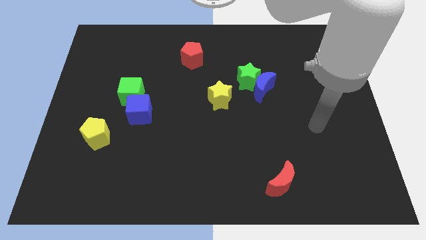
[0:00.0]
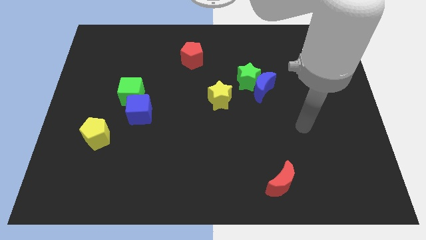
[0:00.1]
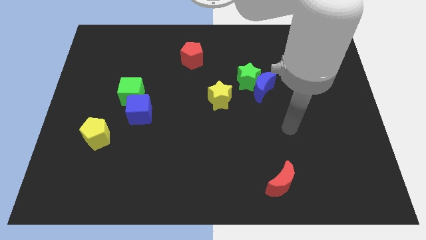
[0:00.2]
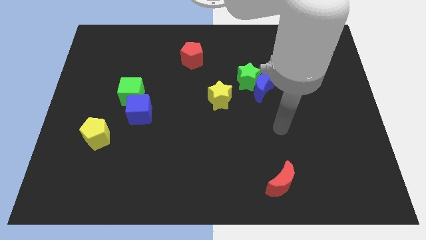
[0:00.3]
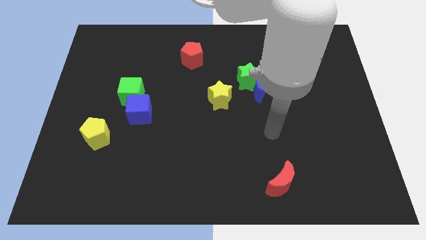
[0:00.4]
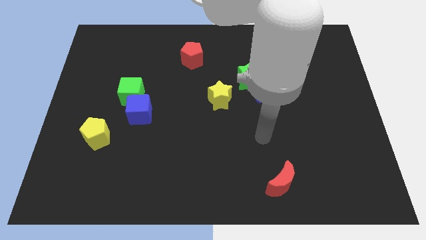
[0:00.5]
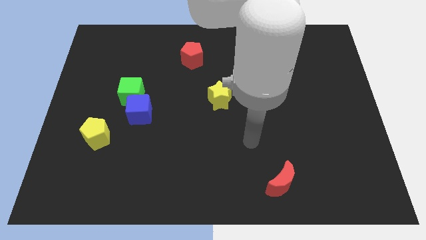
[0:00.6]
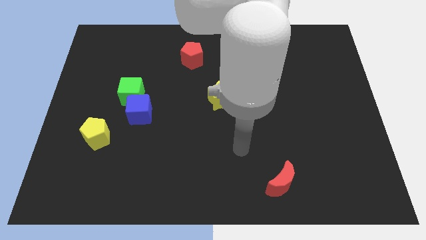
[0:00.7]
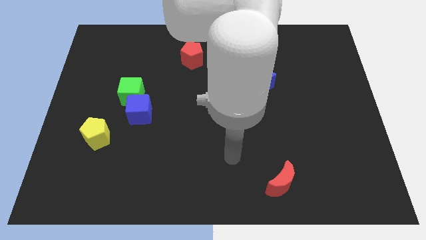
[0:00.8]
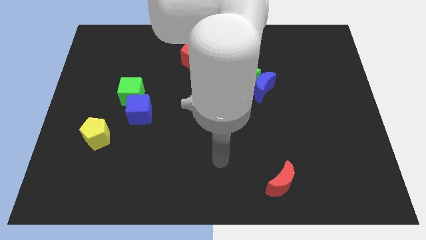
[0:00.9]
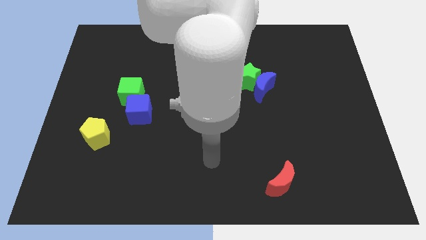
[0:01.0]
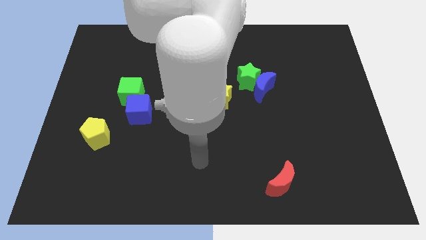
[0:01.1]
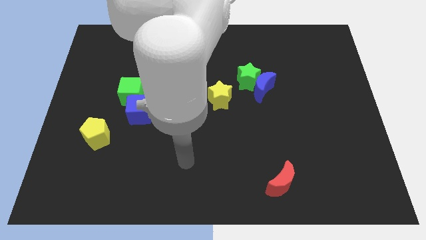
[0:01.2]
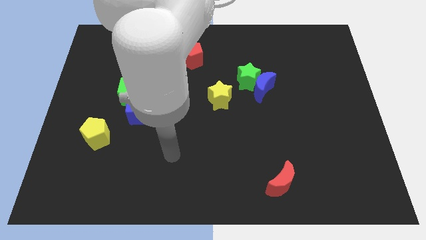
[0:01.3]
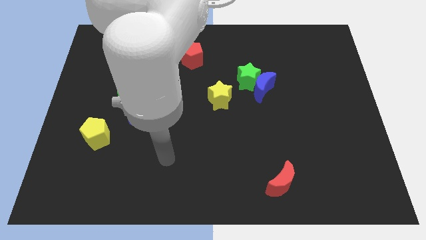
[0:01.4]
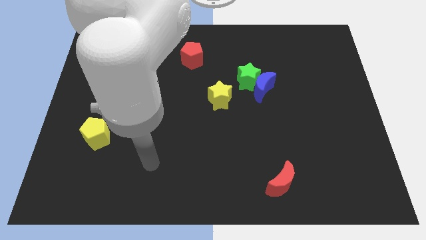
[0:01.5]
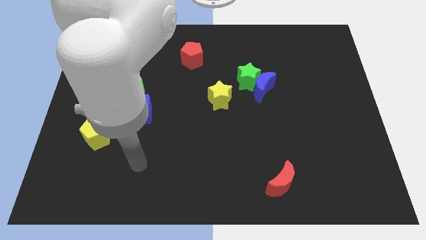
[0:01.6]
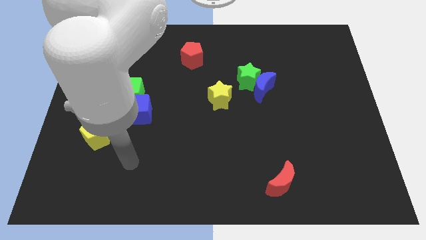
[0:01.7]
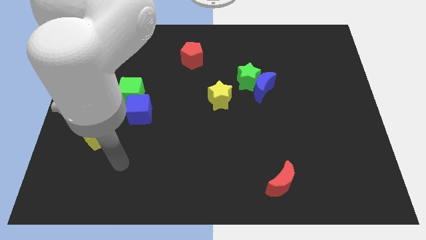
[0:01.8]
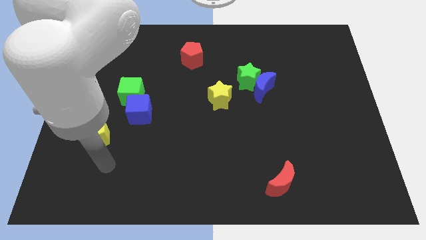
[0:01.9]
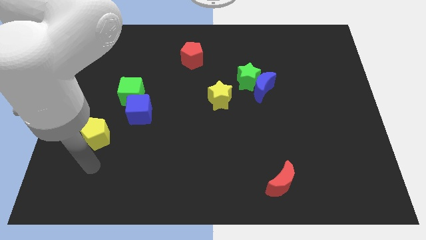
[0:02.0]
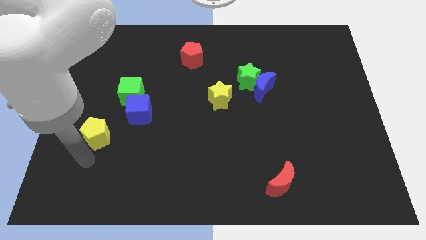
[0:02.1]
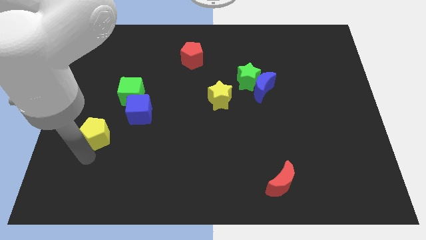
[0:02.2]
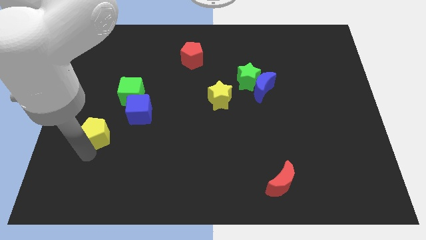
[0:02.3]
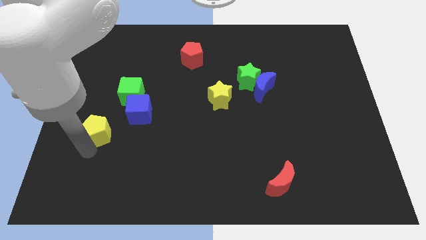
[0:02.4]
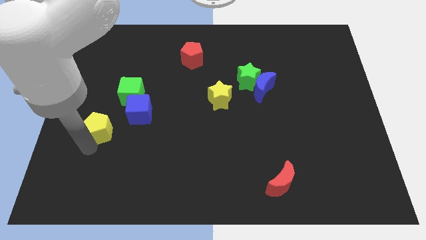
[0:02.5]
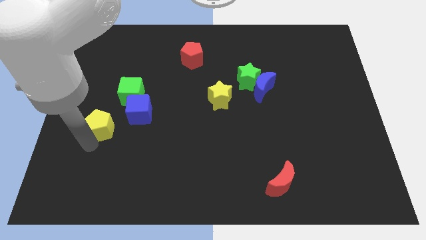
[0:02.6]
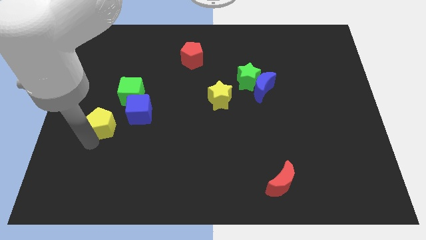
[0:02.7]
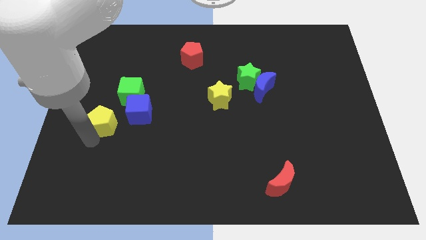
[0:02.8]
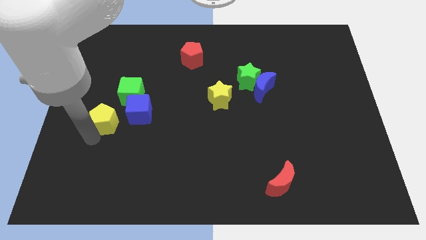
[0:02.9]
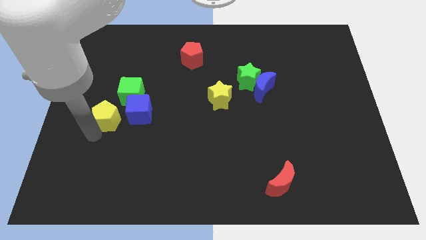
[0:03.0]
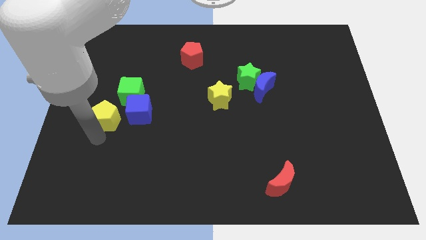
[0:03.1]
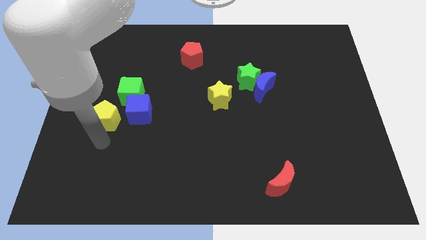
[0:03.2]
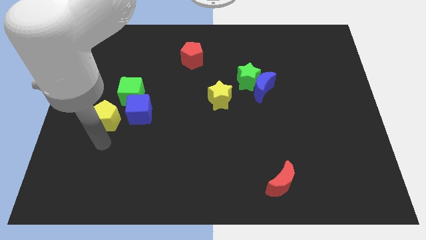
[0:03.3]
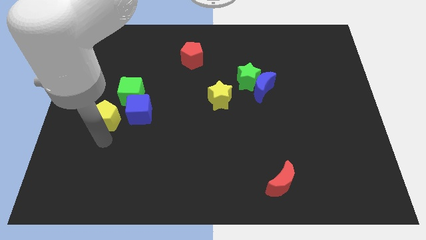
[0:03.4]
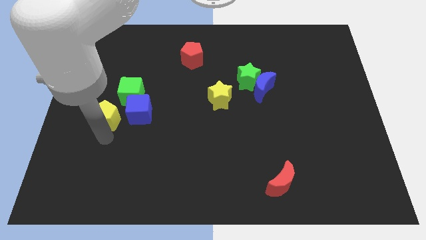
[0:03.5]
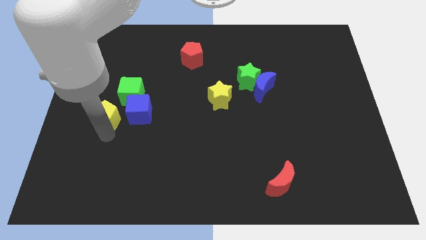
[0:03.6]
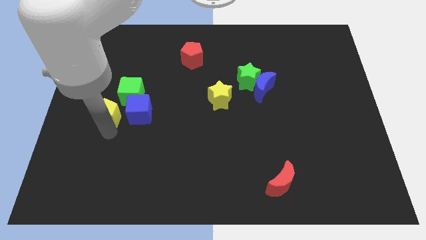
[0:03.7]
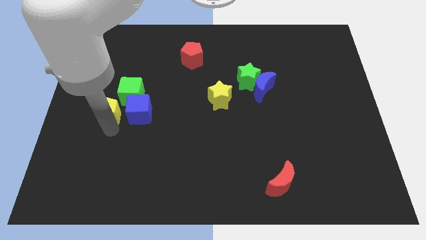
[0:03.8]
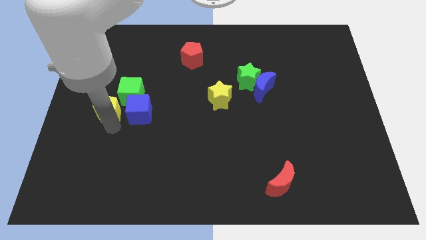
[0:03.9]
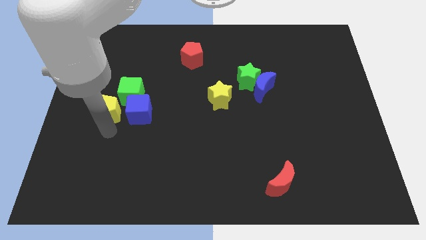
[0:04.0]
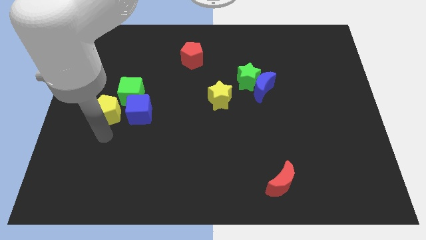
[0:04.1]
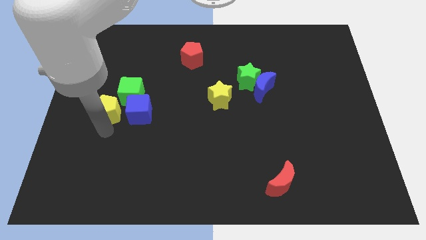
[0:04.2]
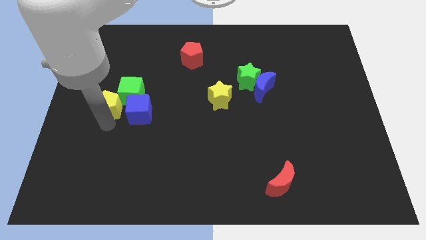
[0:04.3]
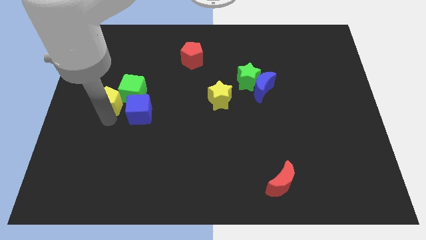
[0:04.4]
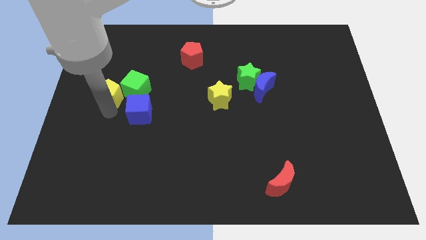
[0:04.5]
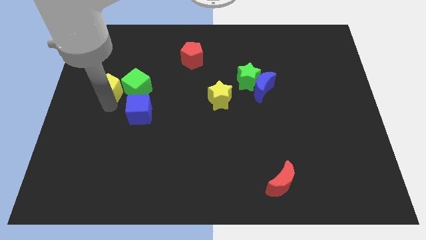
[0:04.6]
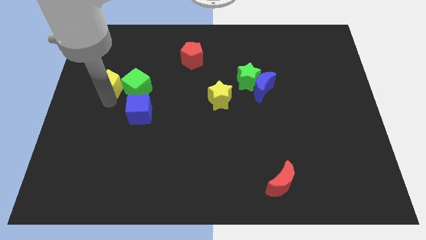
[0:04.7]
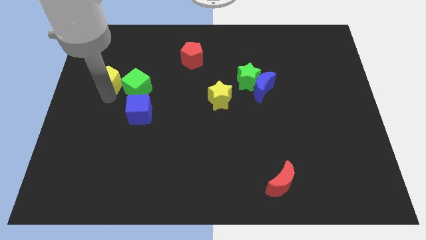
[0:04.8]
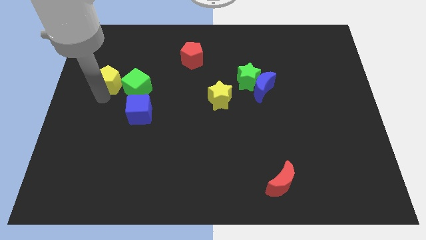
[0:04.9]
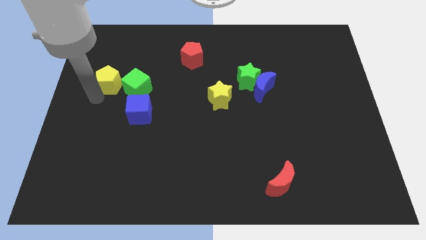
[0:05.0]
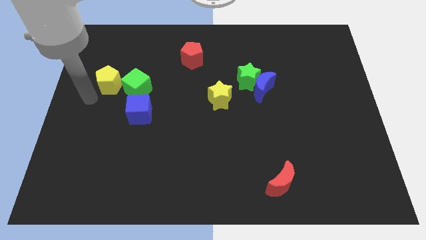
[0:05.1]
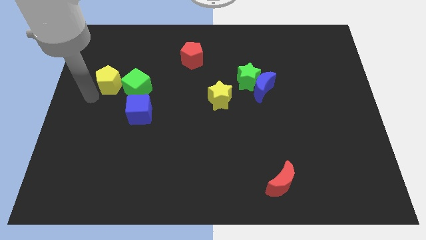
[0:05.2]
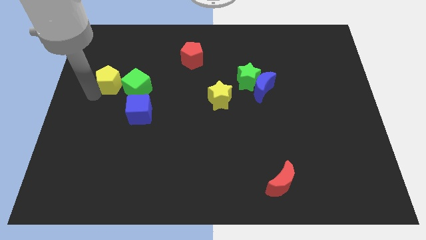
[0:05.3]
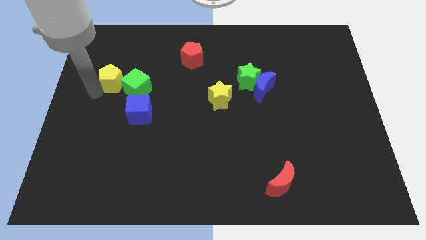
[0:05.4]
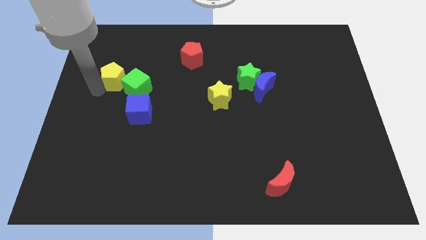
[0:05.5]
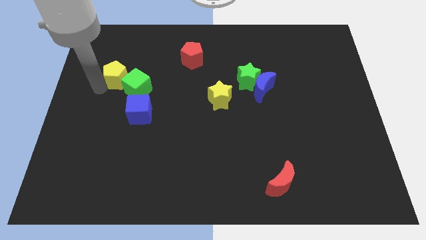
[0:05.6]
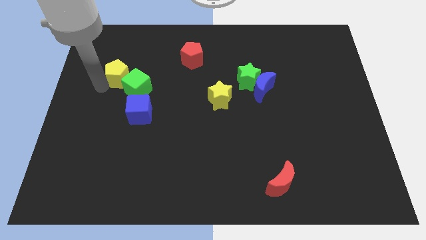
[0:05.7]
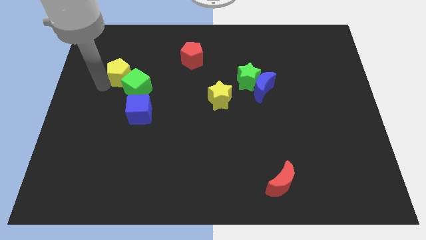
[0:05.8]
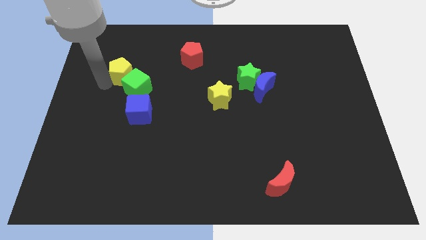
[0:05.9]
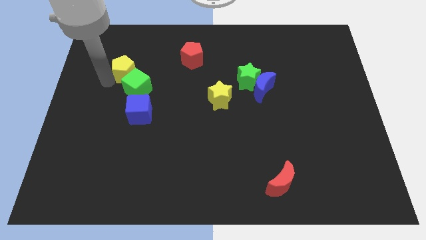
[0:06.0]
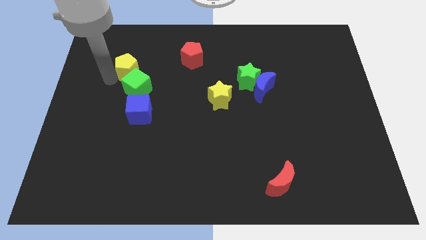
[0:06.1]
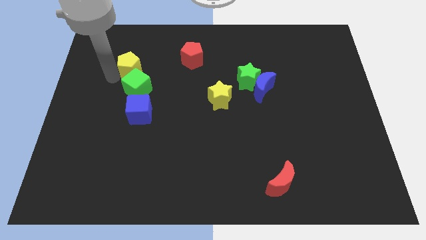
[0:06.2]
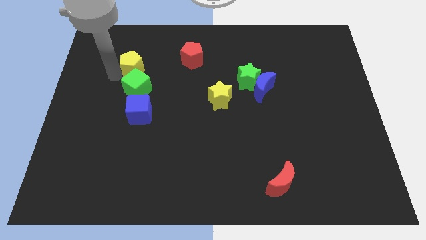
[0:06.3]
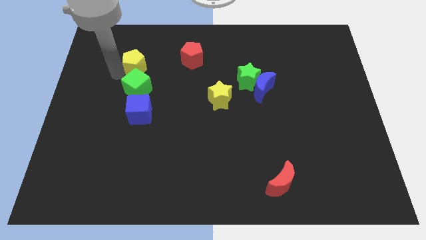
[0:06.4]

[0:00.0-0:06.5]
push the yellow pentagon left of the red pentagon

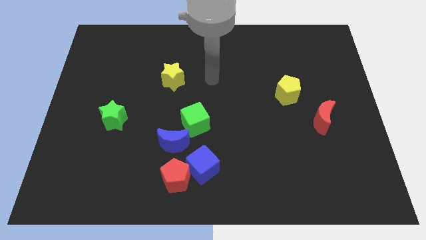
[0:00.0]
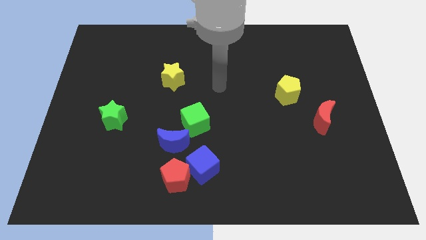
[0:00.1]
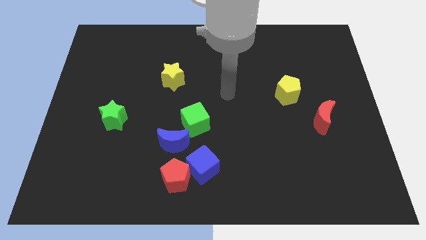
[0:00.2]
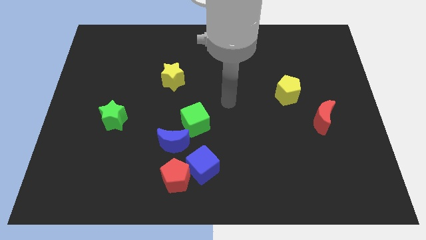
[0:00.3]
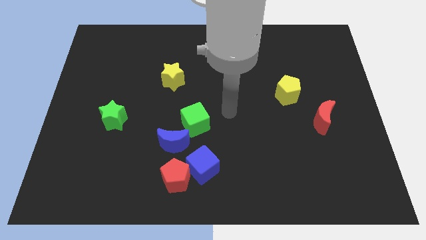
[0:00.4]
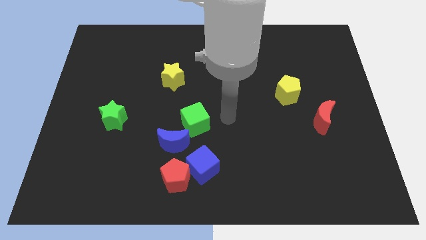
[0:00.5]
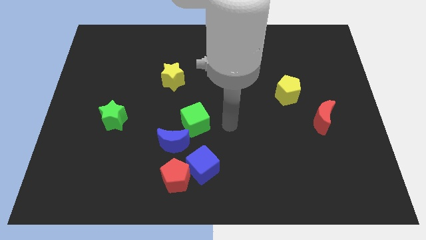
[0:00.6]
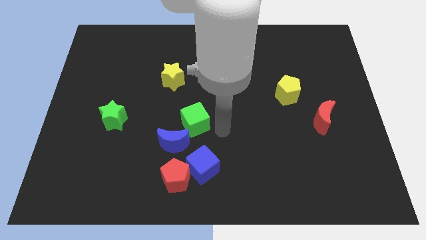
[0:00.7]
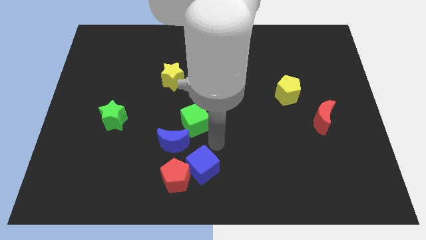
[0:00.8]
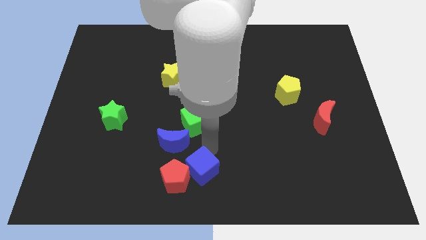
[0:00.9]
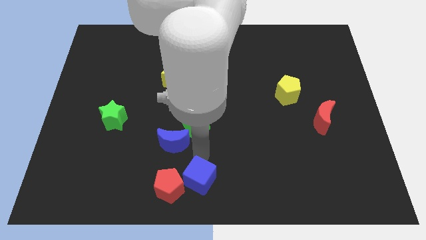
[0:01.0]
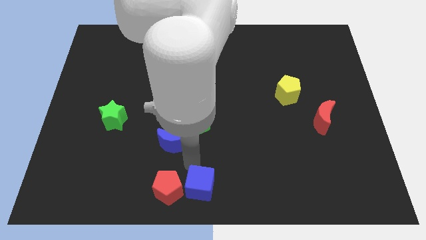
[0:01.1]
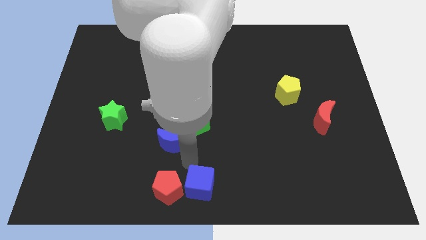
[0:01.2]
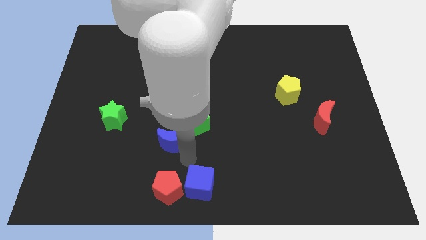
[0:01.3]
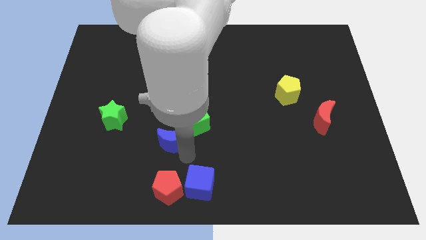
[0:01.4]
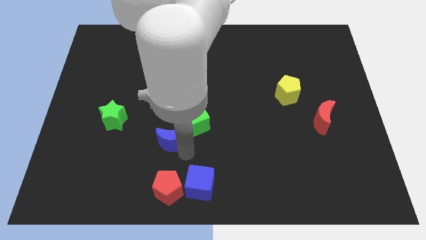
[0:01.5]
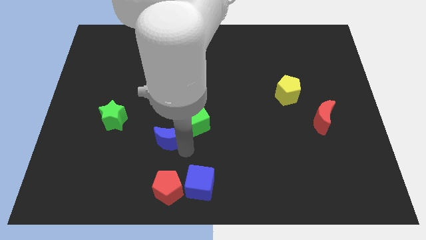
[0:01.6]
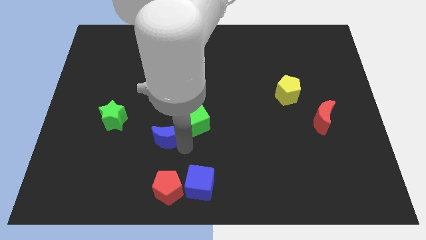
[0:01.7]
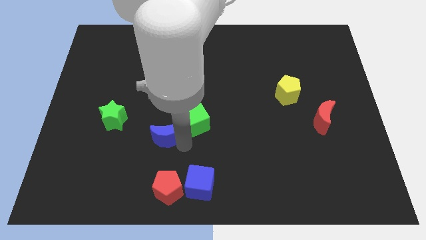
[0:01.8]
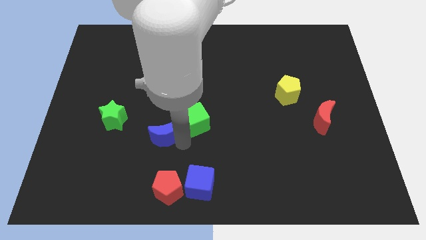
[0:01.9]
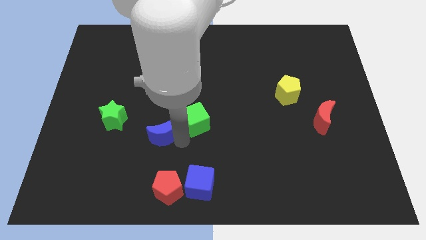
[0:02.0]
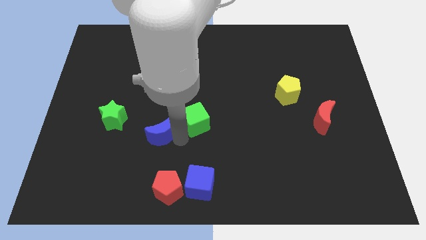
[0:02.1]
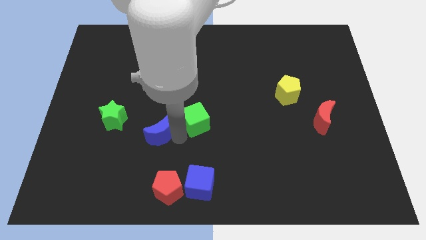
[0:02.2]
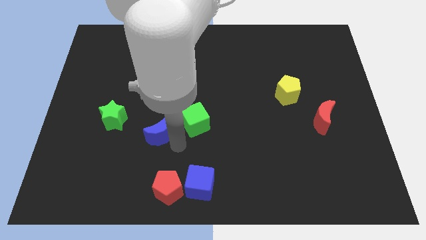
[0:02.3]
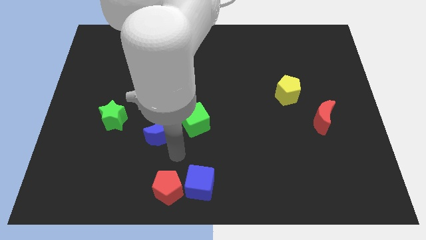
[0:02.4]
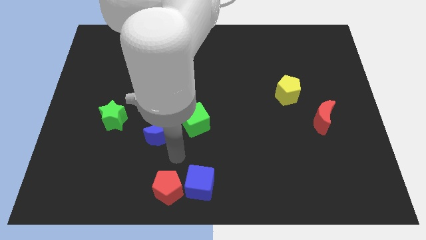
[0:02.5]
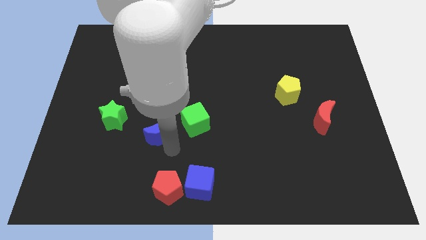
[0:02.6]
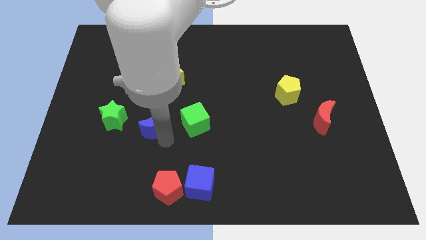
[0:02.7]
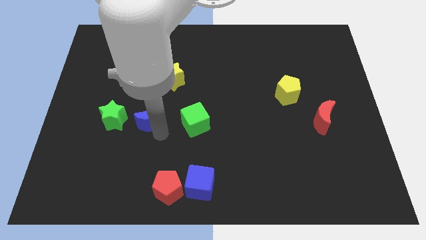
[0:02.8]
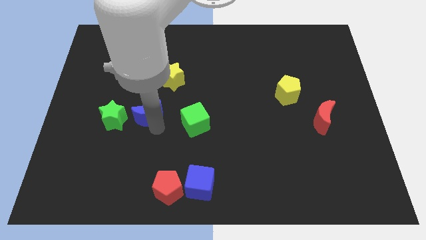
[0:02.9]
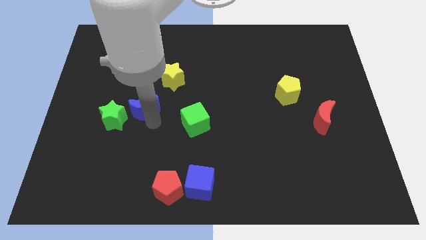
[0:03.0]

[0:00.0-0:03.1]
move the blue moon to the top right side of the green star
